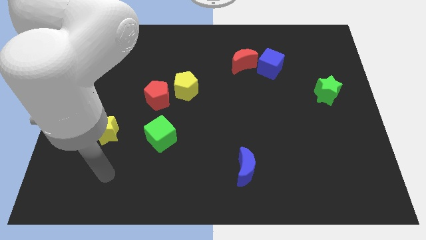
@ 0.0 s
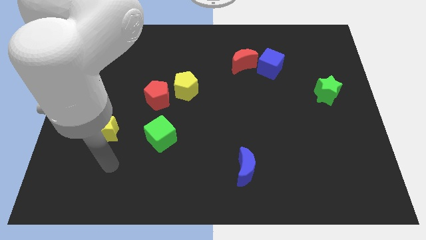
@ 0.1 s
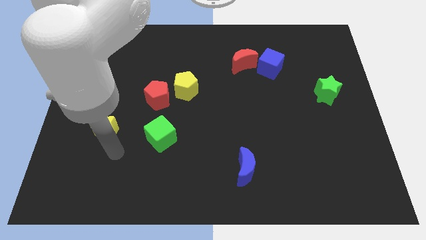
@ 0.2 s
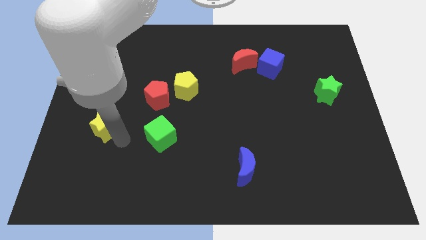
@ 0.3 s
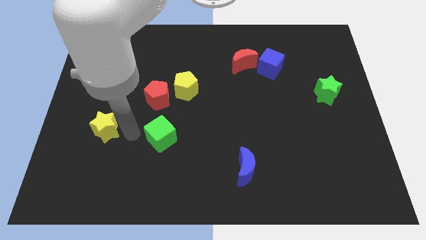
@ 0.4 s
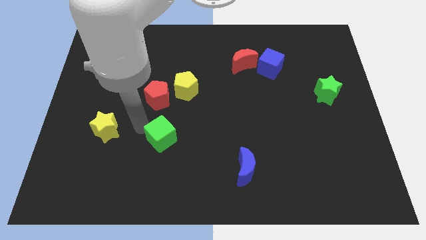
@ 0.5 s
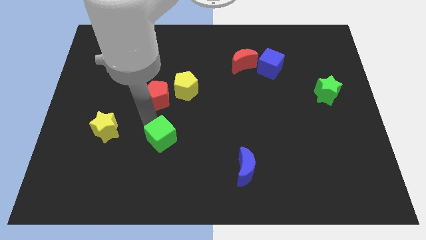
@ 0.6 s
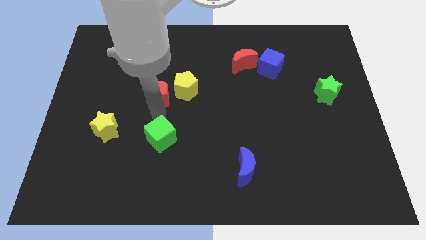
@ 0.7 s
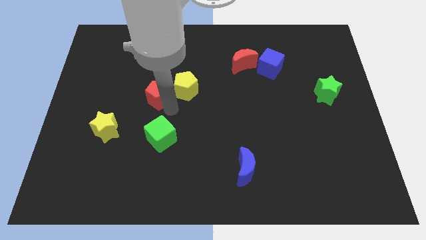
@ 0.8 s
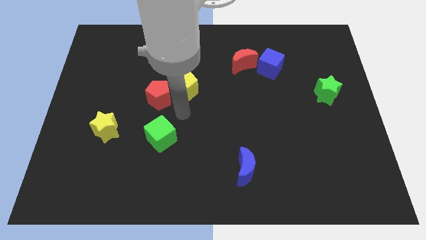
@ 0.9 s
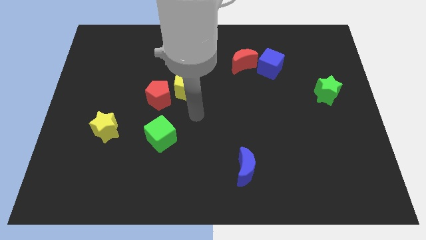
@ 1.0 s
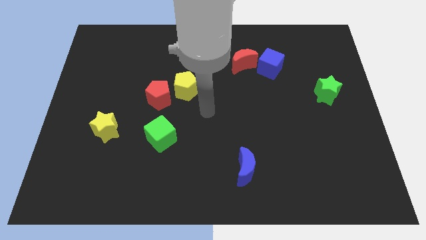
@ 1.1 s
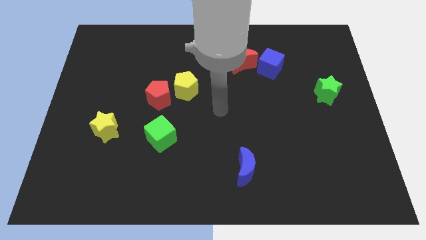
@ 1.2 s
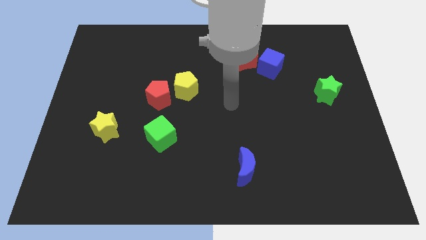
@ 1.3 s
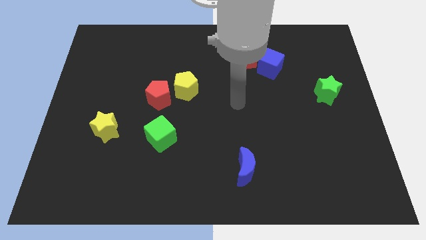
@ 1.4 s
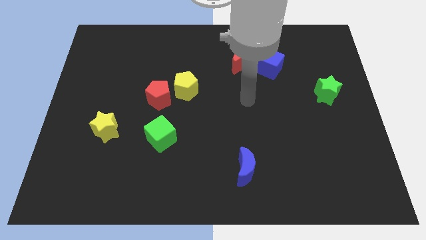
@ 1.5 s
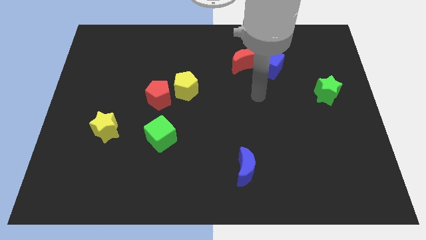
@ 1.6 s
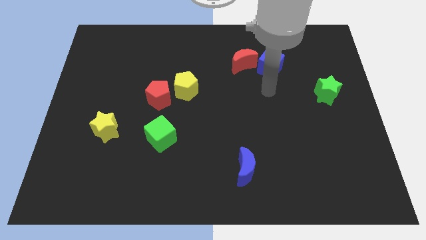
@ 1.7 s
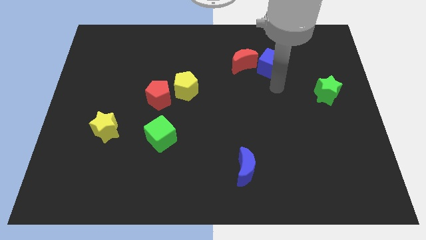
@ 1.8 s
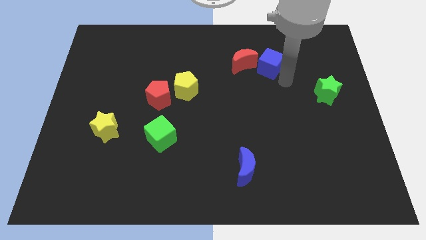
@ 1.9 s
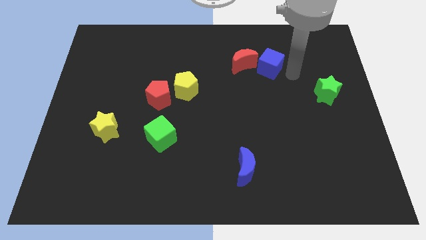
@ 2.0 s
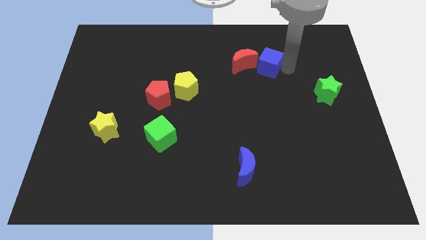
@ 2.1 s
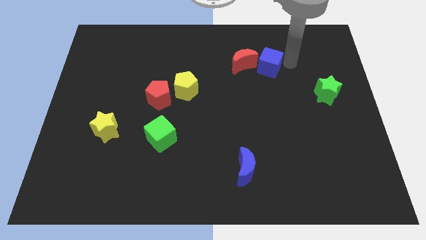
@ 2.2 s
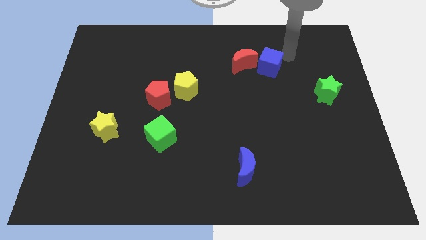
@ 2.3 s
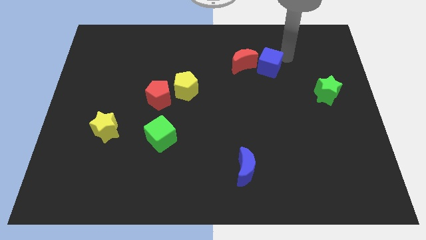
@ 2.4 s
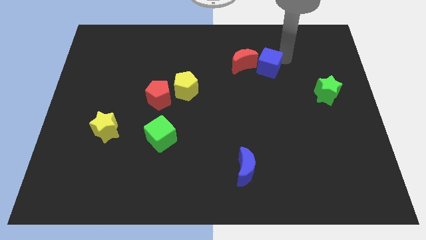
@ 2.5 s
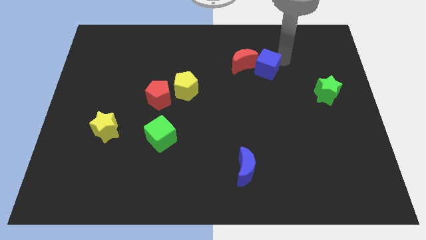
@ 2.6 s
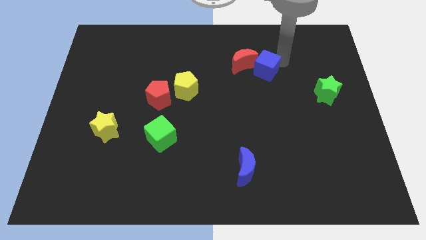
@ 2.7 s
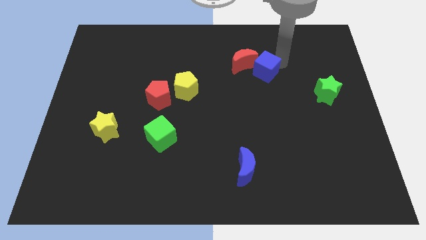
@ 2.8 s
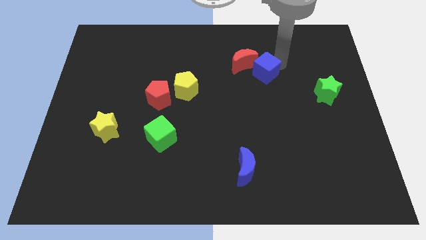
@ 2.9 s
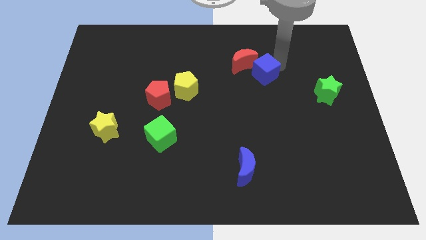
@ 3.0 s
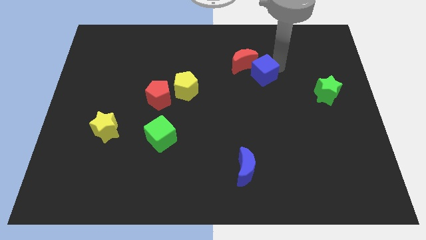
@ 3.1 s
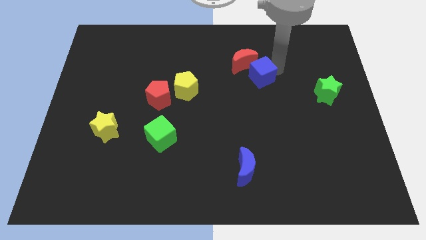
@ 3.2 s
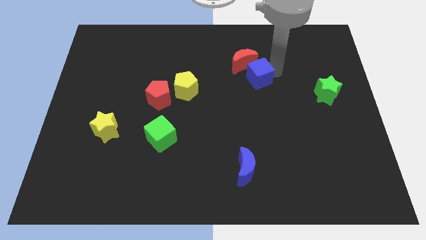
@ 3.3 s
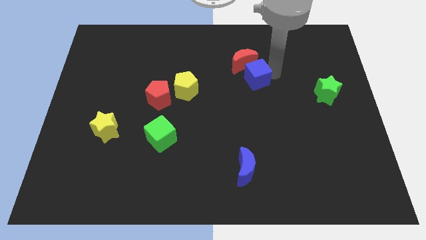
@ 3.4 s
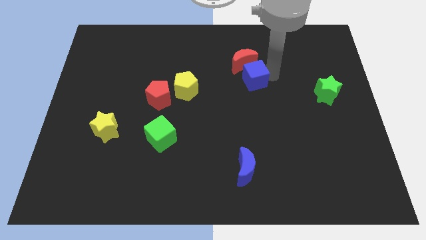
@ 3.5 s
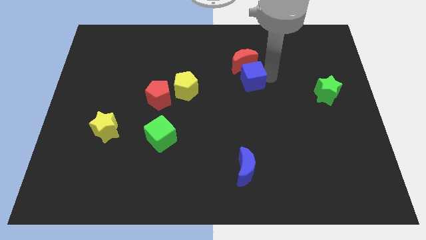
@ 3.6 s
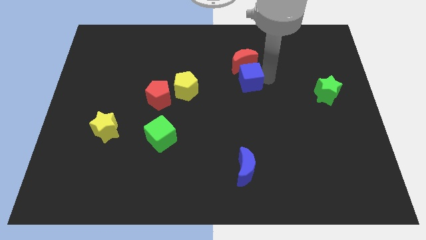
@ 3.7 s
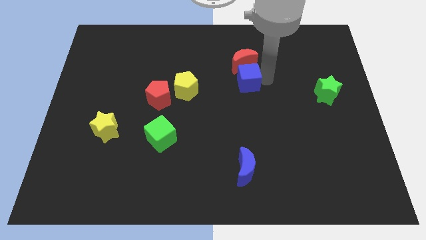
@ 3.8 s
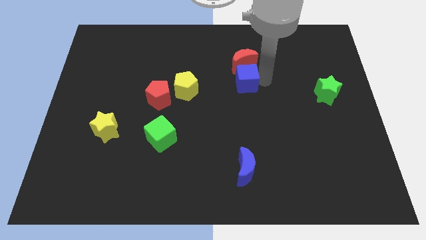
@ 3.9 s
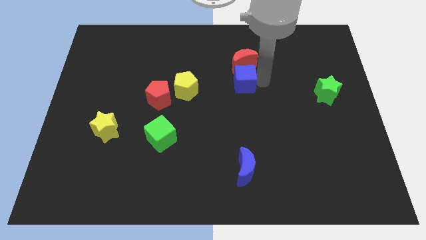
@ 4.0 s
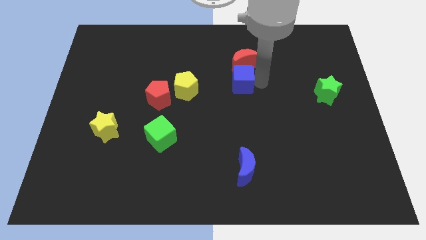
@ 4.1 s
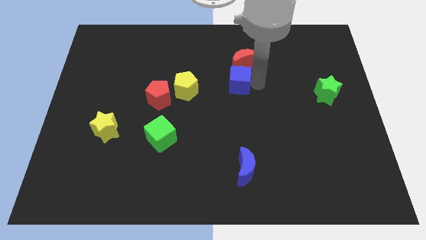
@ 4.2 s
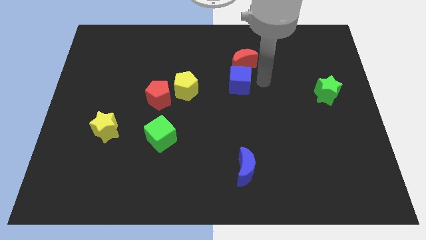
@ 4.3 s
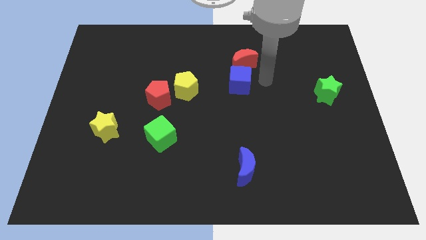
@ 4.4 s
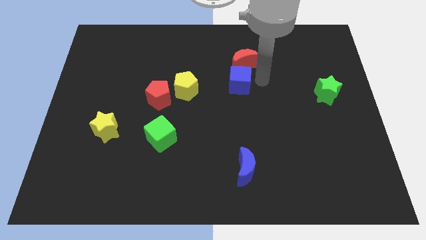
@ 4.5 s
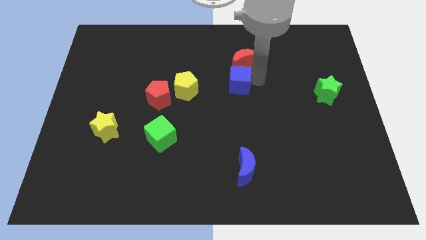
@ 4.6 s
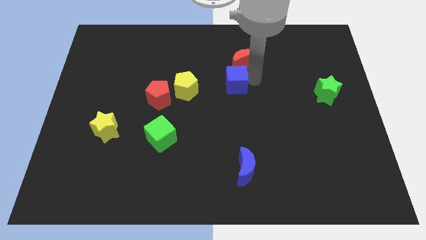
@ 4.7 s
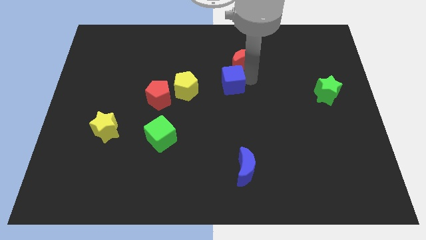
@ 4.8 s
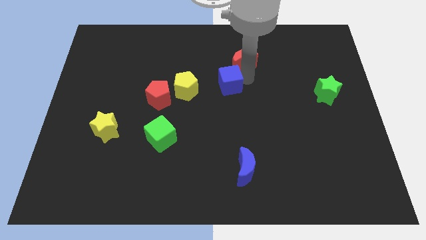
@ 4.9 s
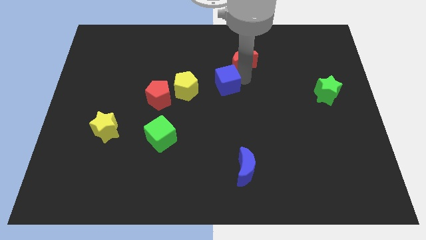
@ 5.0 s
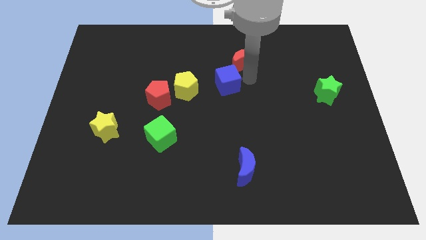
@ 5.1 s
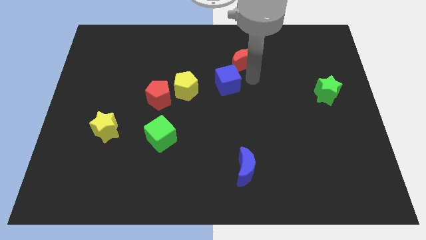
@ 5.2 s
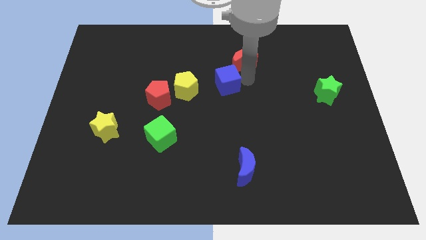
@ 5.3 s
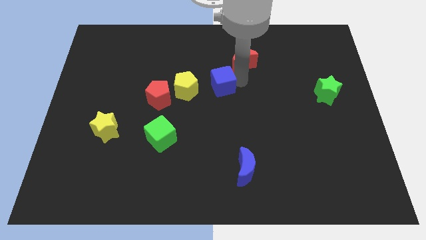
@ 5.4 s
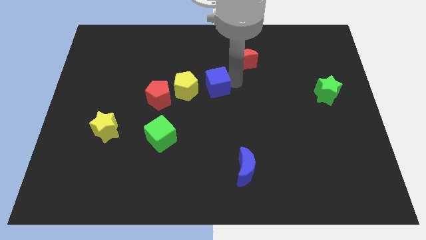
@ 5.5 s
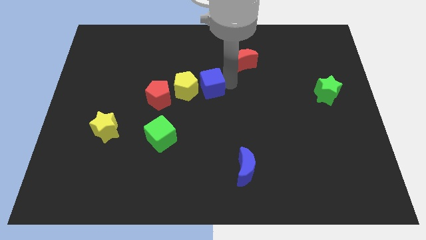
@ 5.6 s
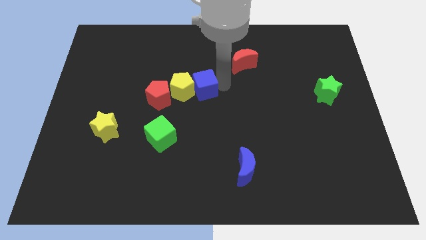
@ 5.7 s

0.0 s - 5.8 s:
move the blue cube close to the yellow pentagon

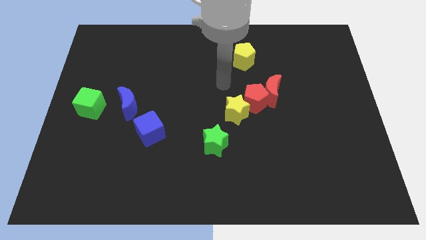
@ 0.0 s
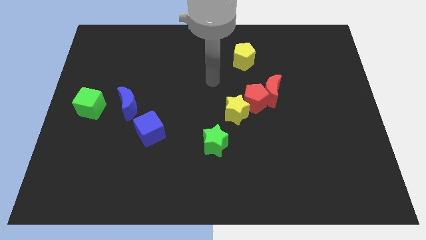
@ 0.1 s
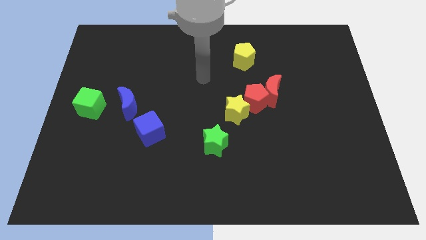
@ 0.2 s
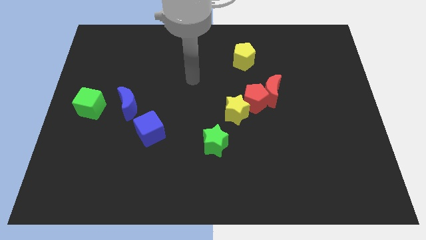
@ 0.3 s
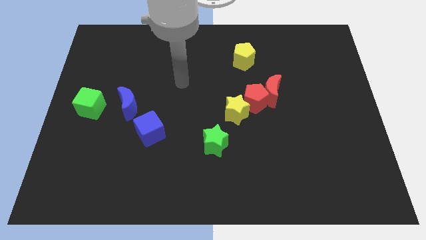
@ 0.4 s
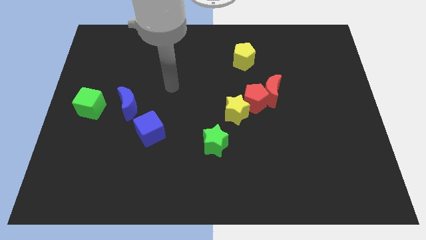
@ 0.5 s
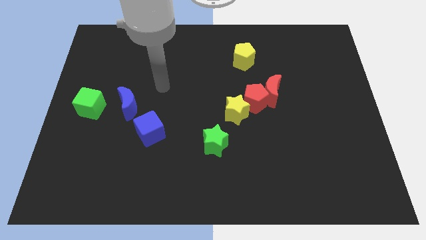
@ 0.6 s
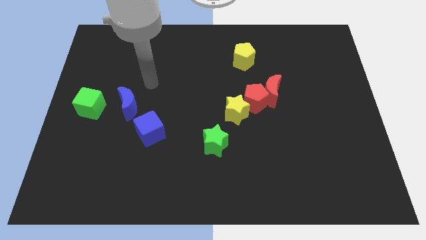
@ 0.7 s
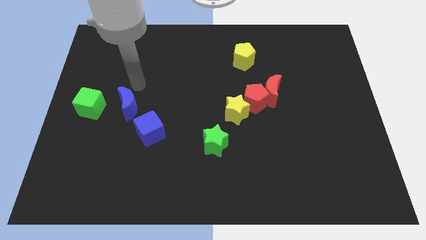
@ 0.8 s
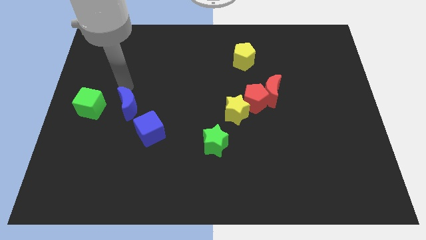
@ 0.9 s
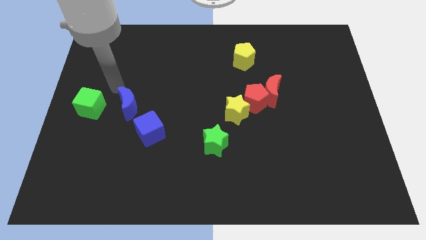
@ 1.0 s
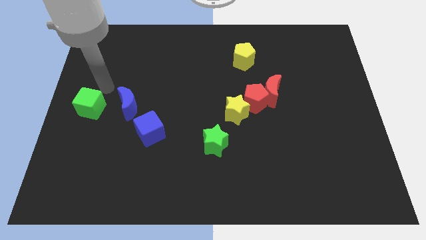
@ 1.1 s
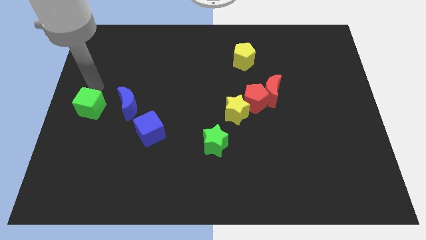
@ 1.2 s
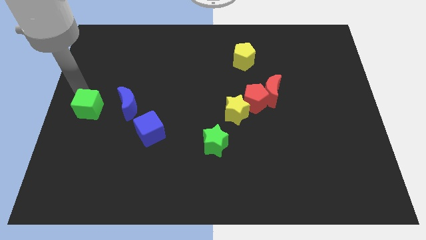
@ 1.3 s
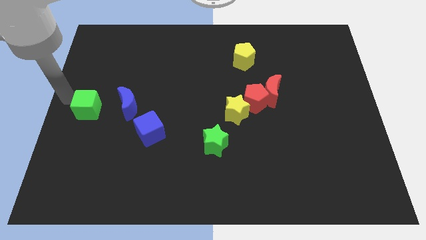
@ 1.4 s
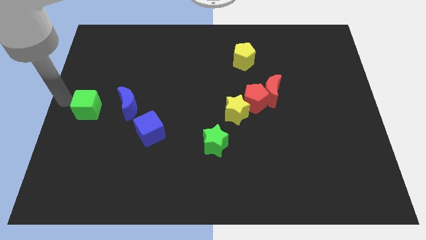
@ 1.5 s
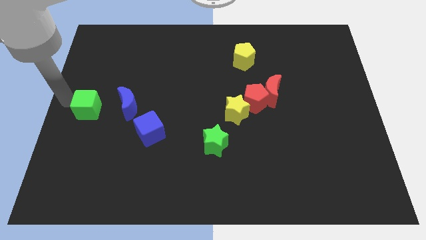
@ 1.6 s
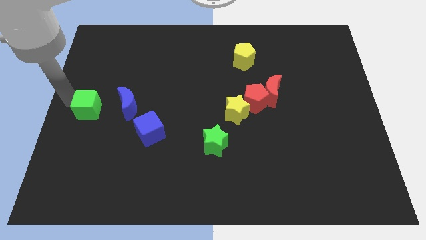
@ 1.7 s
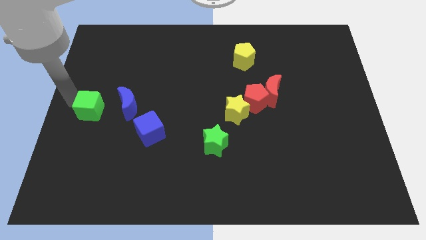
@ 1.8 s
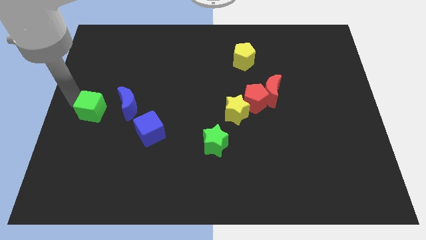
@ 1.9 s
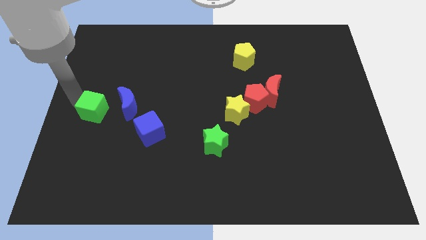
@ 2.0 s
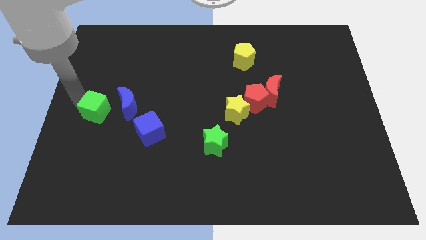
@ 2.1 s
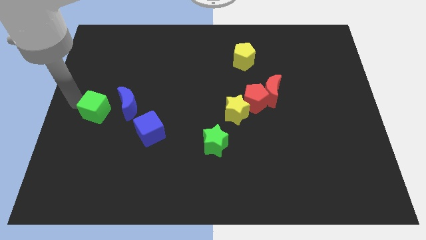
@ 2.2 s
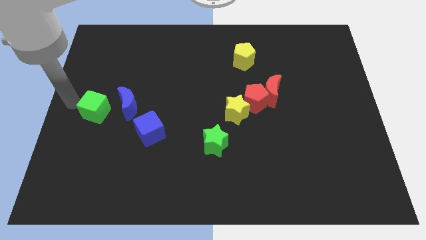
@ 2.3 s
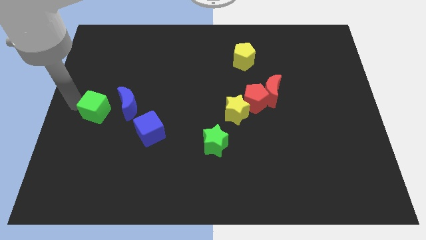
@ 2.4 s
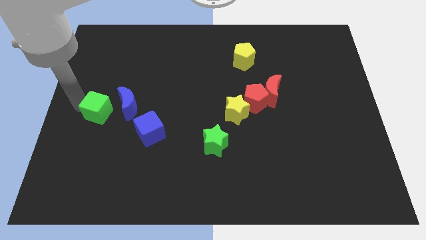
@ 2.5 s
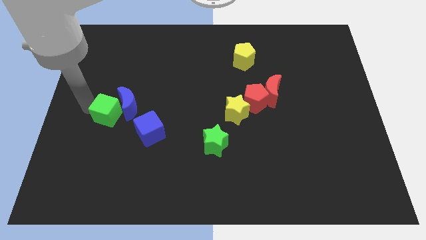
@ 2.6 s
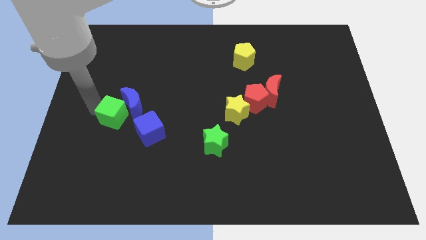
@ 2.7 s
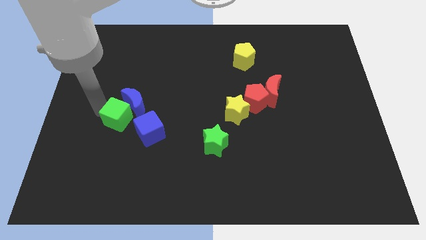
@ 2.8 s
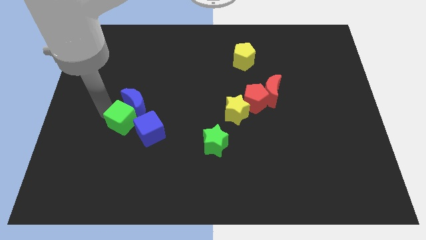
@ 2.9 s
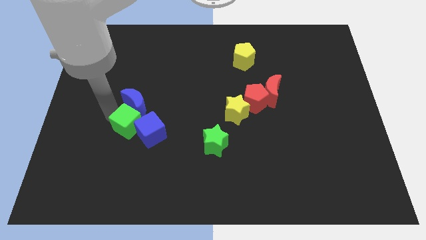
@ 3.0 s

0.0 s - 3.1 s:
push the green cube close to the blue cube
